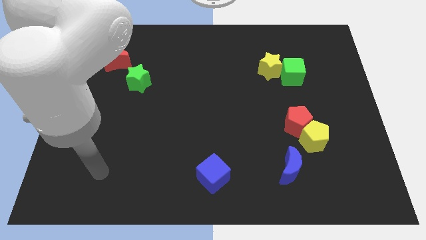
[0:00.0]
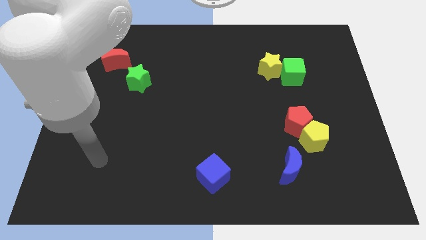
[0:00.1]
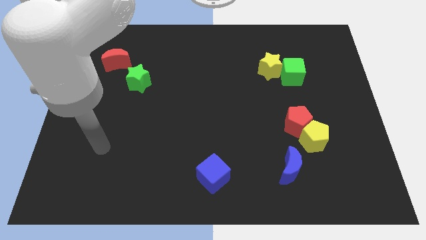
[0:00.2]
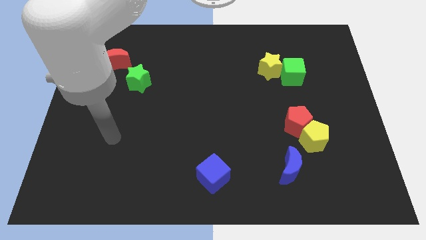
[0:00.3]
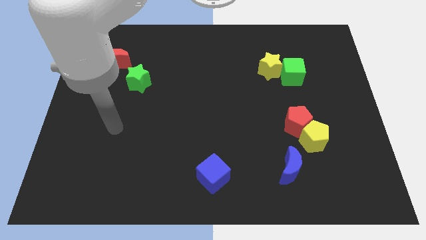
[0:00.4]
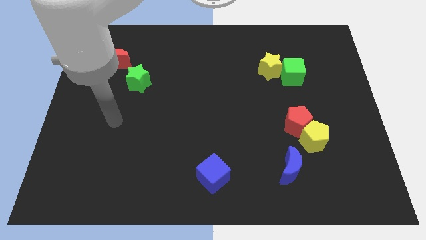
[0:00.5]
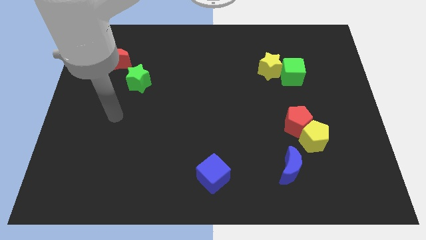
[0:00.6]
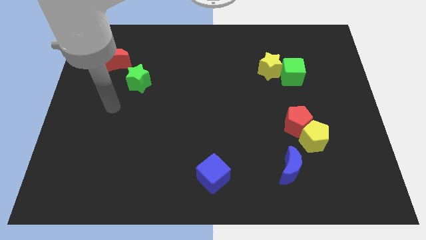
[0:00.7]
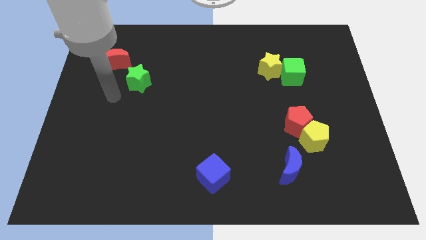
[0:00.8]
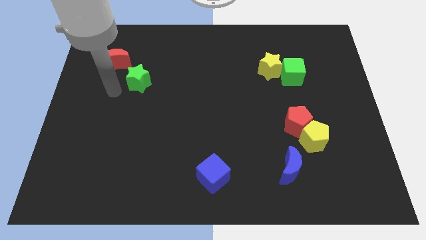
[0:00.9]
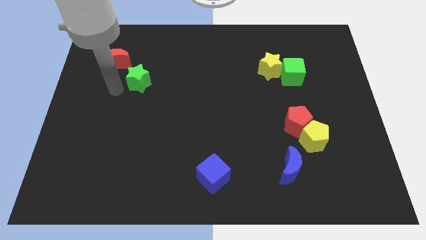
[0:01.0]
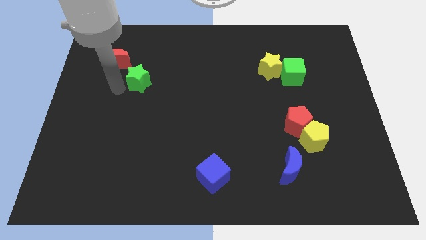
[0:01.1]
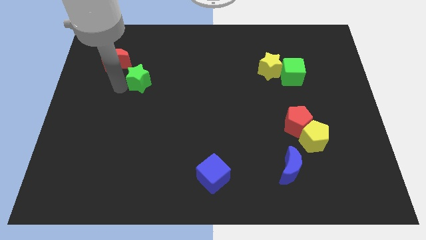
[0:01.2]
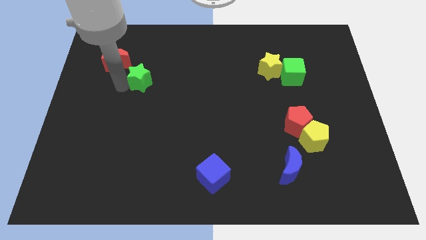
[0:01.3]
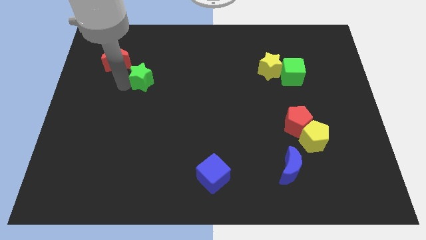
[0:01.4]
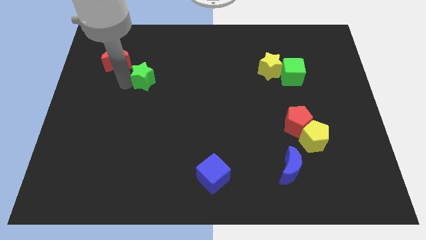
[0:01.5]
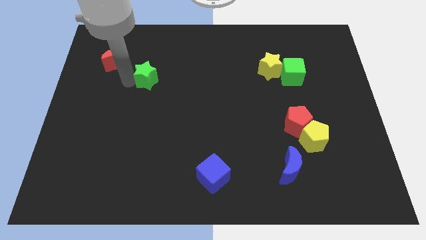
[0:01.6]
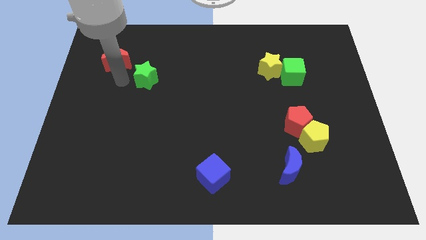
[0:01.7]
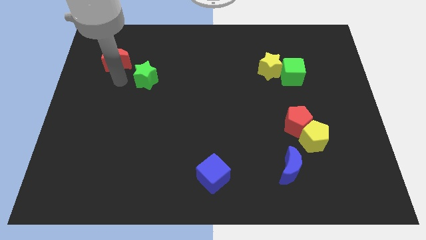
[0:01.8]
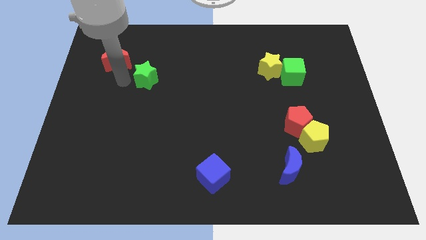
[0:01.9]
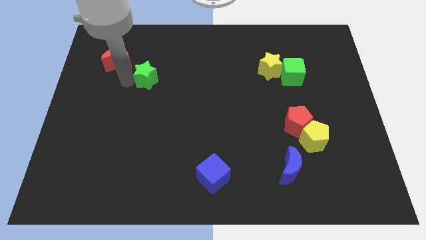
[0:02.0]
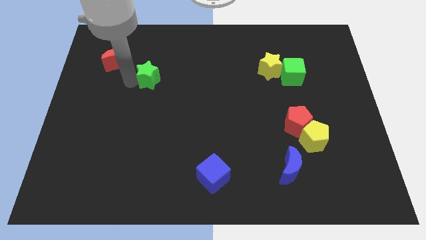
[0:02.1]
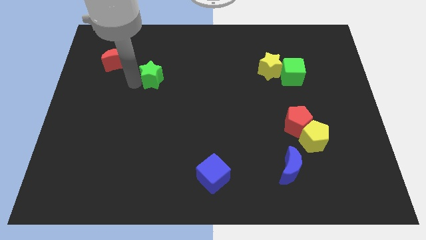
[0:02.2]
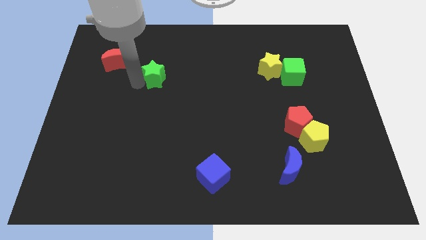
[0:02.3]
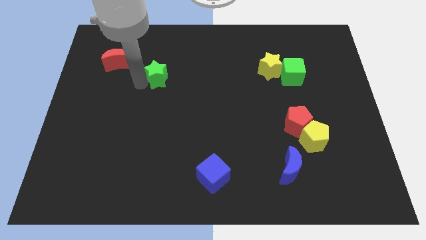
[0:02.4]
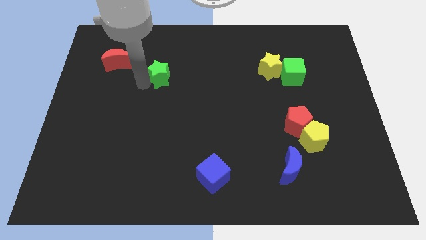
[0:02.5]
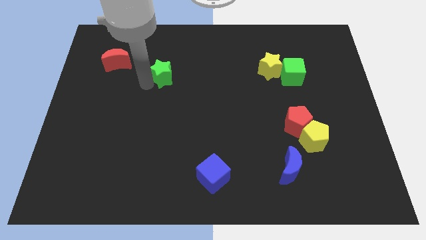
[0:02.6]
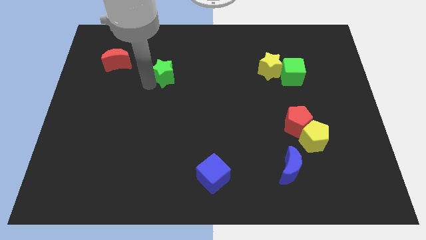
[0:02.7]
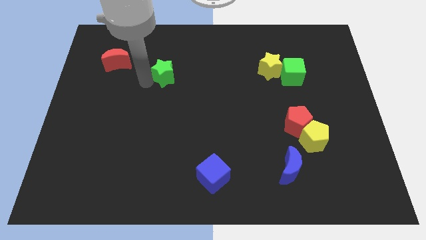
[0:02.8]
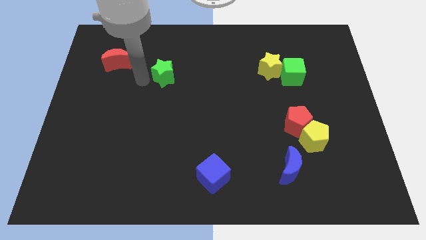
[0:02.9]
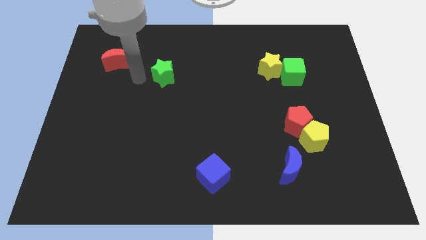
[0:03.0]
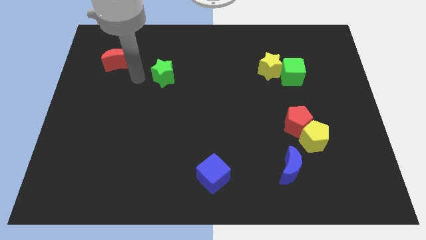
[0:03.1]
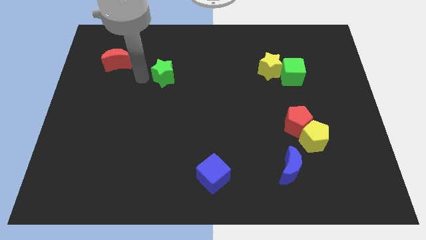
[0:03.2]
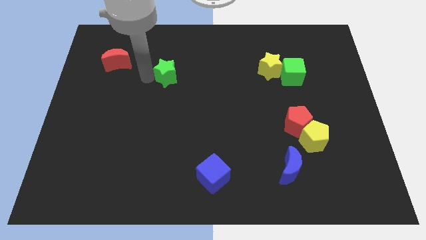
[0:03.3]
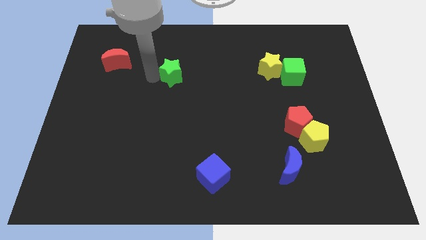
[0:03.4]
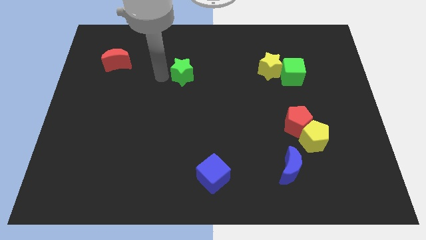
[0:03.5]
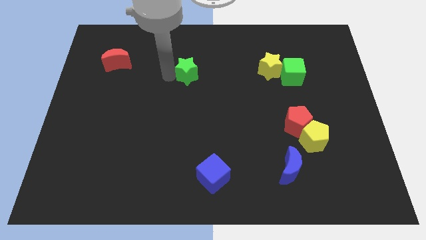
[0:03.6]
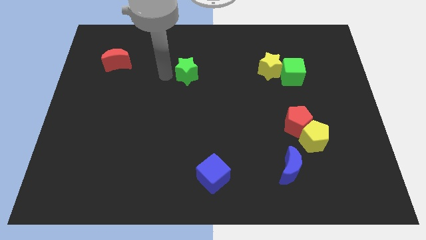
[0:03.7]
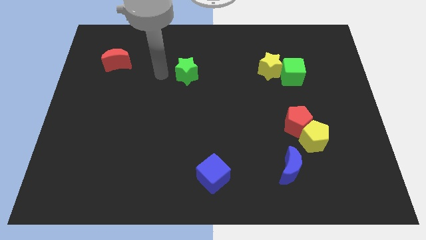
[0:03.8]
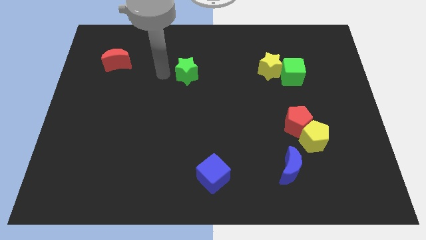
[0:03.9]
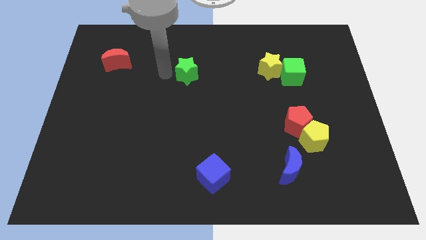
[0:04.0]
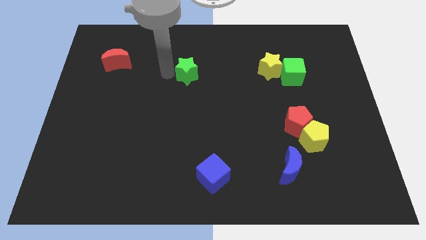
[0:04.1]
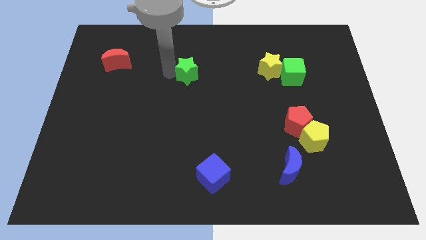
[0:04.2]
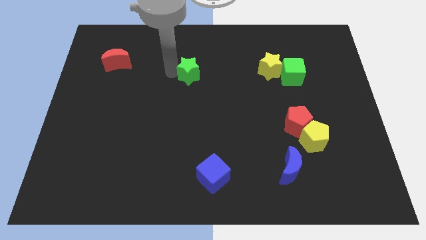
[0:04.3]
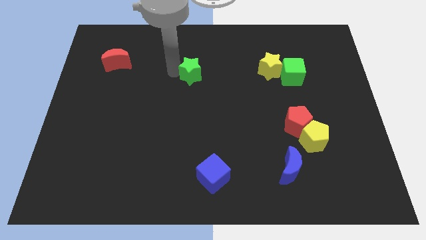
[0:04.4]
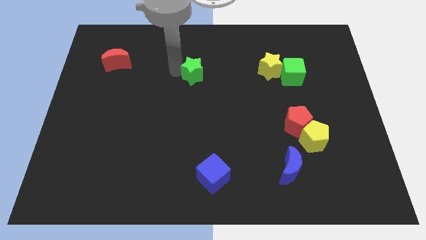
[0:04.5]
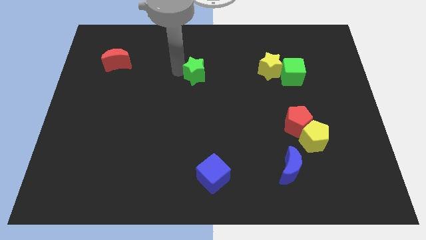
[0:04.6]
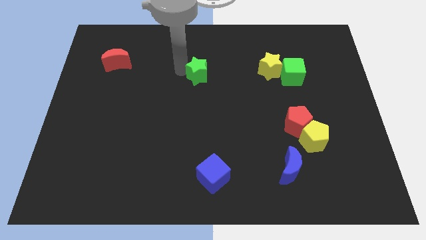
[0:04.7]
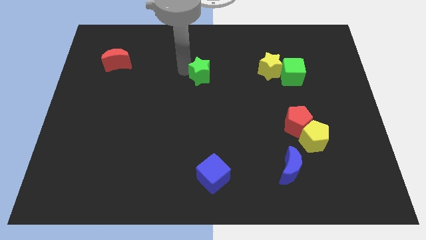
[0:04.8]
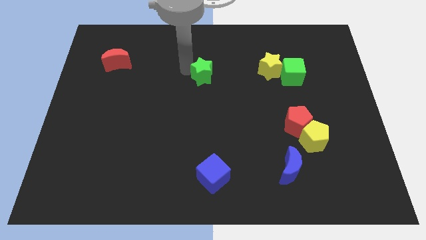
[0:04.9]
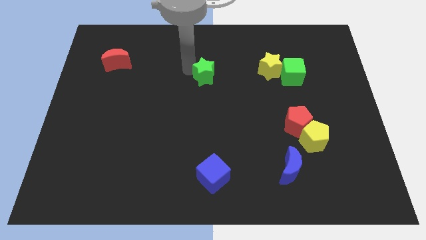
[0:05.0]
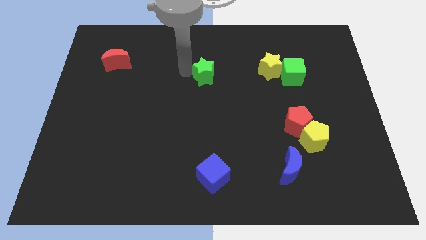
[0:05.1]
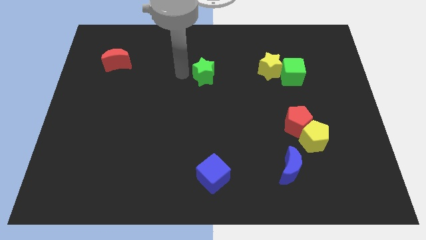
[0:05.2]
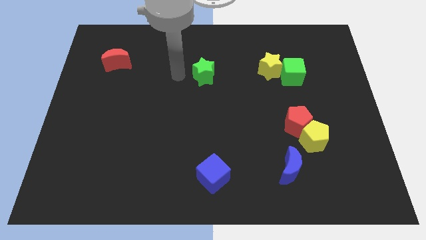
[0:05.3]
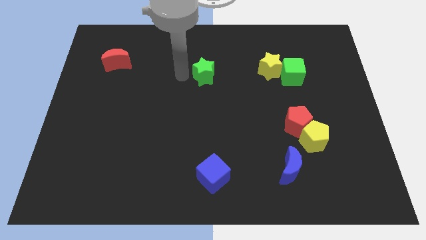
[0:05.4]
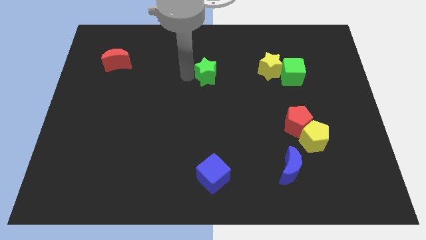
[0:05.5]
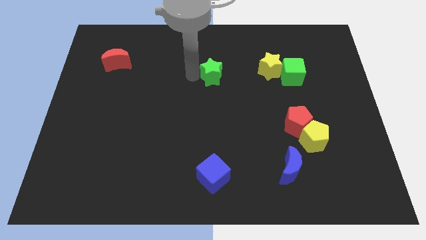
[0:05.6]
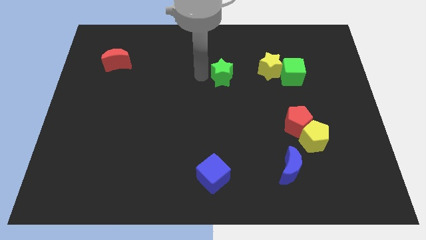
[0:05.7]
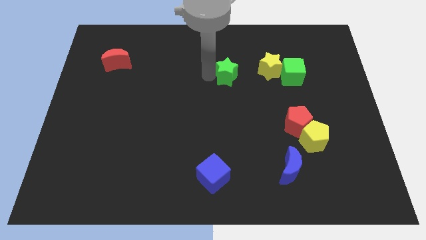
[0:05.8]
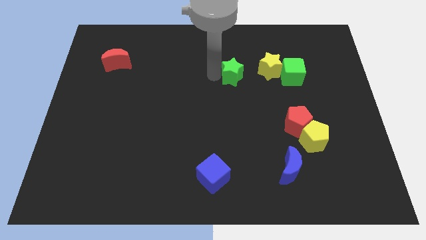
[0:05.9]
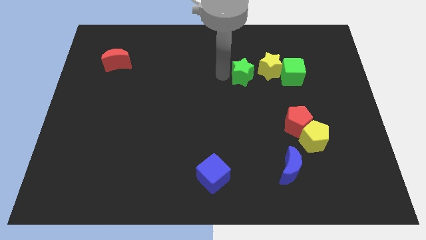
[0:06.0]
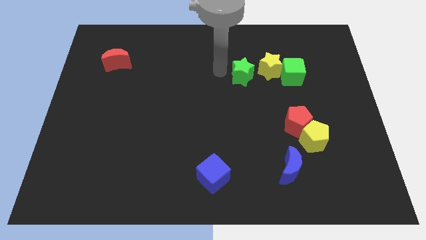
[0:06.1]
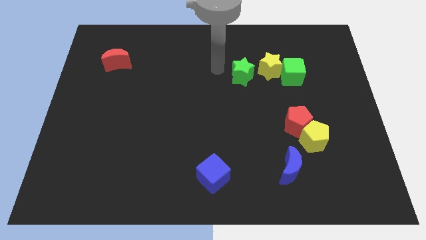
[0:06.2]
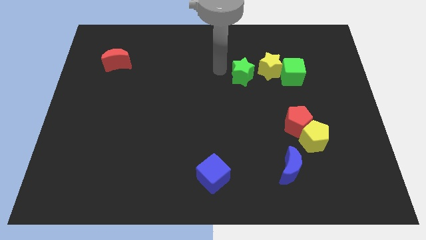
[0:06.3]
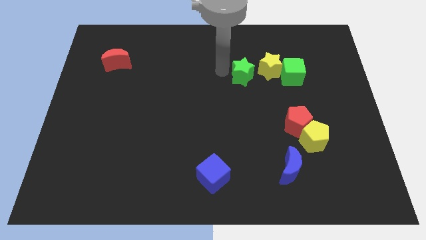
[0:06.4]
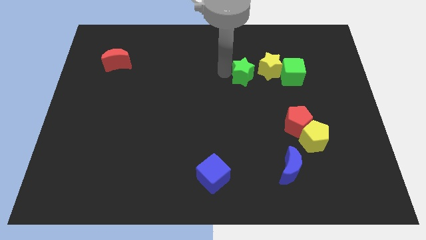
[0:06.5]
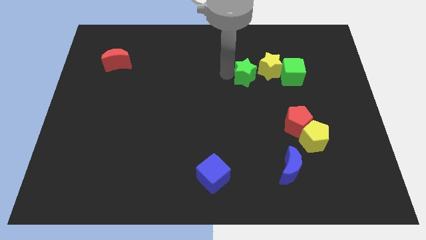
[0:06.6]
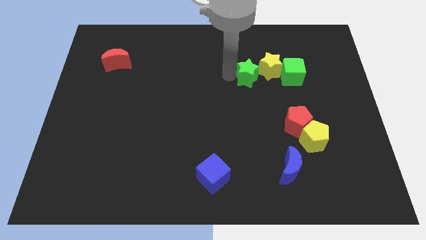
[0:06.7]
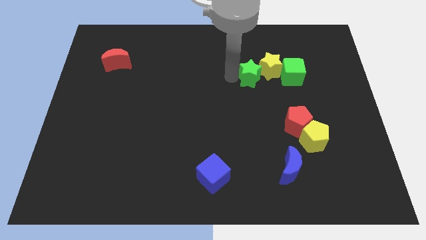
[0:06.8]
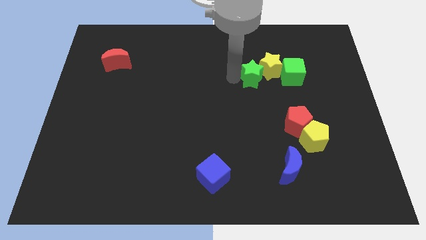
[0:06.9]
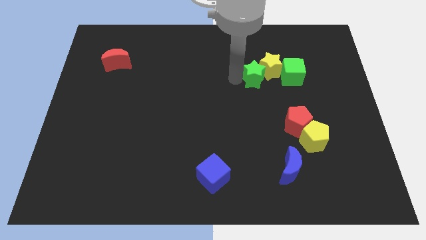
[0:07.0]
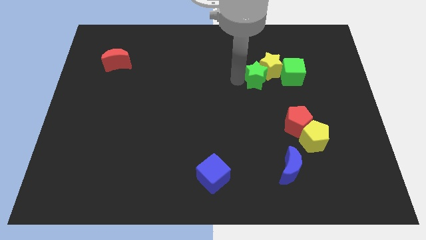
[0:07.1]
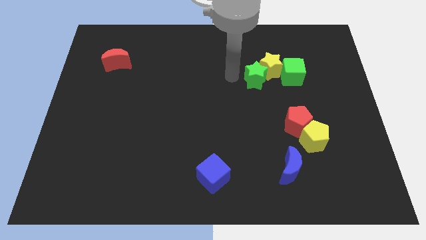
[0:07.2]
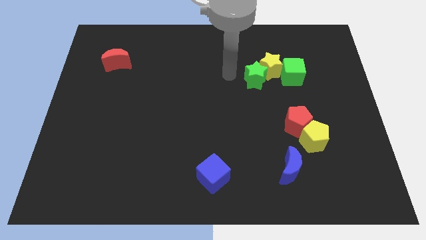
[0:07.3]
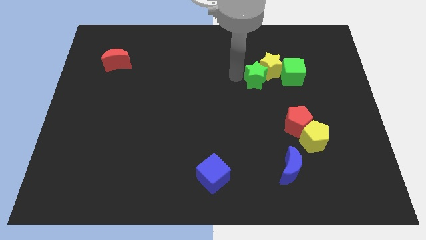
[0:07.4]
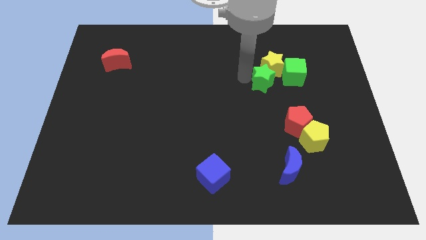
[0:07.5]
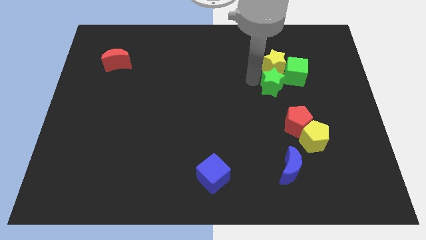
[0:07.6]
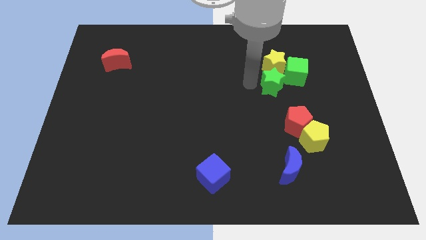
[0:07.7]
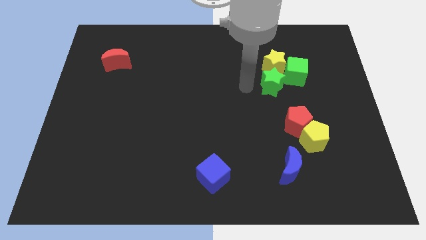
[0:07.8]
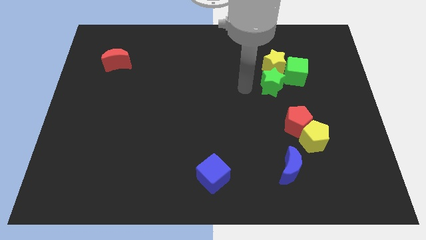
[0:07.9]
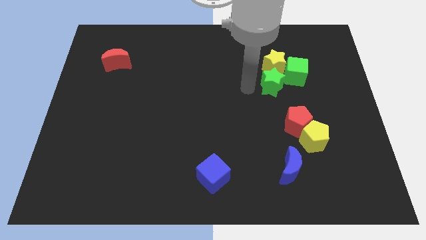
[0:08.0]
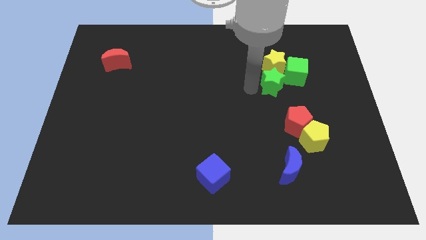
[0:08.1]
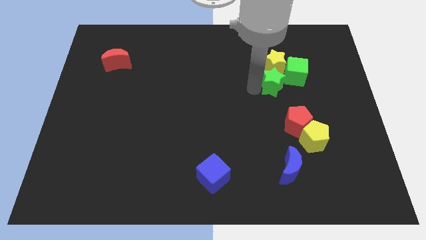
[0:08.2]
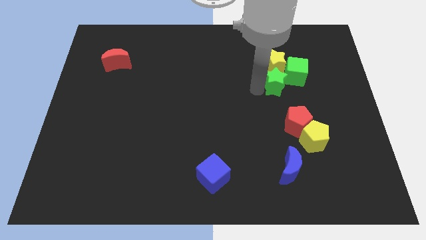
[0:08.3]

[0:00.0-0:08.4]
move the green star to the bottom right side of the yellow star
